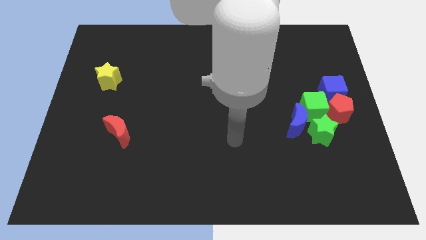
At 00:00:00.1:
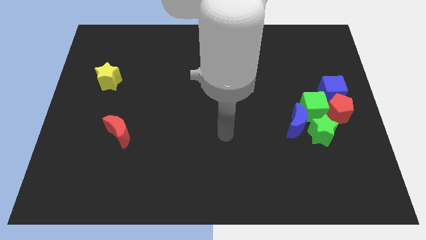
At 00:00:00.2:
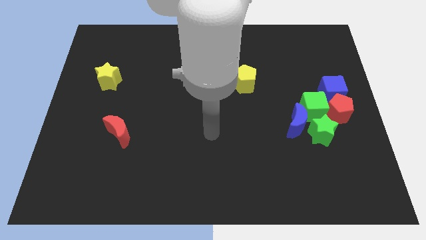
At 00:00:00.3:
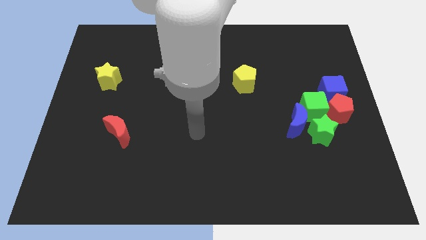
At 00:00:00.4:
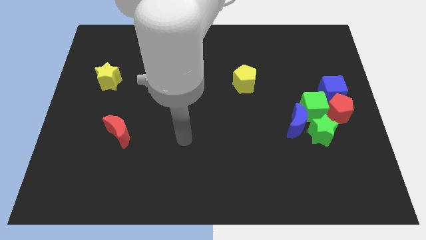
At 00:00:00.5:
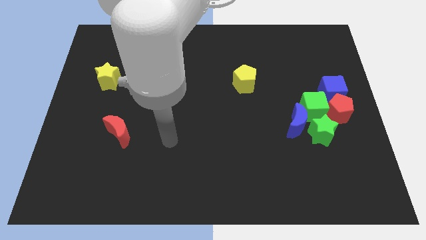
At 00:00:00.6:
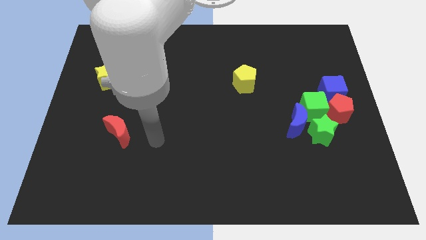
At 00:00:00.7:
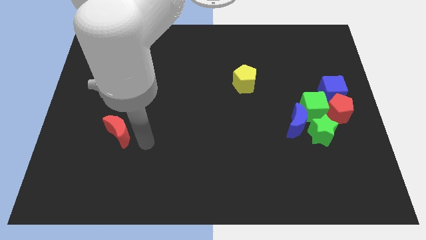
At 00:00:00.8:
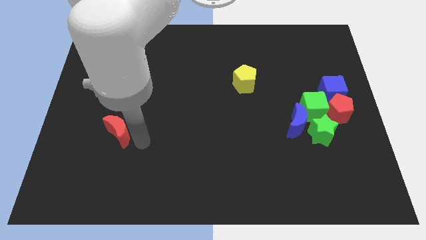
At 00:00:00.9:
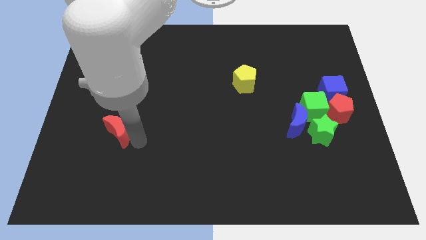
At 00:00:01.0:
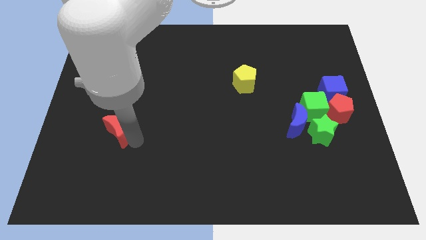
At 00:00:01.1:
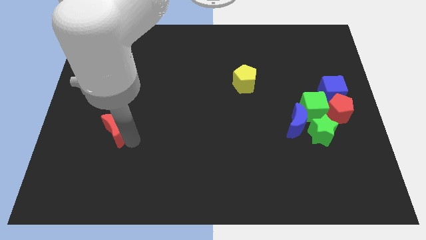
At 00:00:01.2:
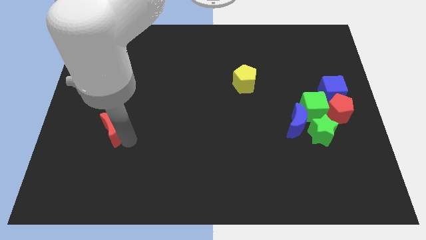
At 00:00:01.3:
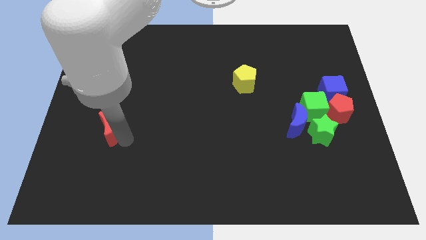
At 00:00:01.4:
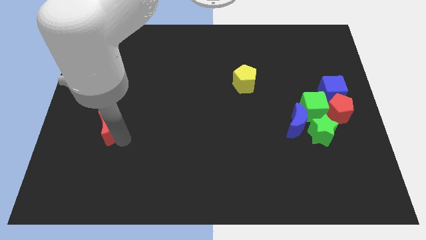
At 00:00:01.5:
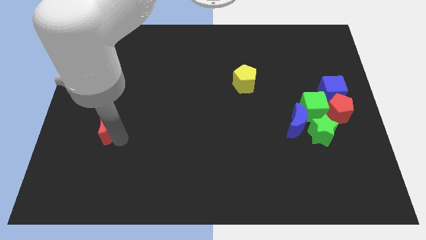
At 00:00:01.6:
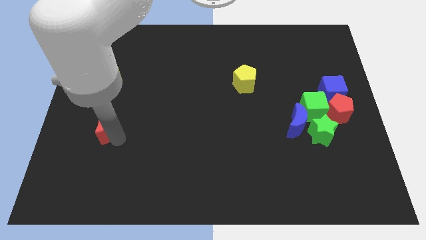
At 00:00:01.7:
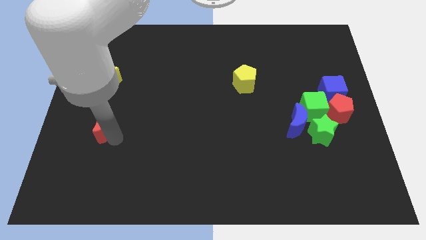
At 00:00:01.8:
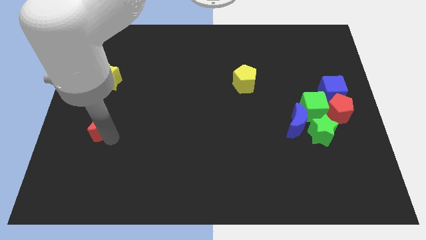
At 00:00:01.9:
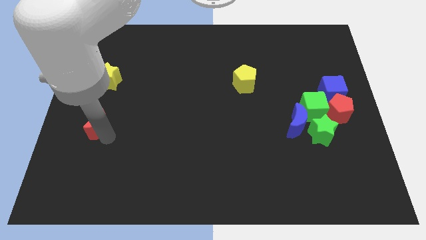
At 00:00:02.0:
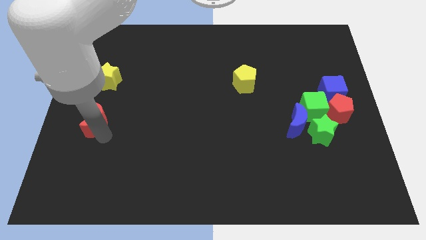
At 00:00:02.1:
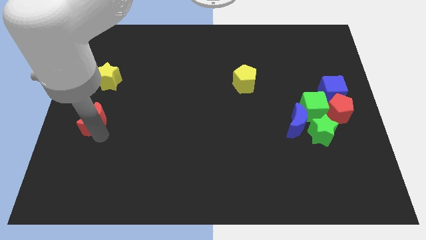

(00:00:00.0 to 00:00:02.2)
move the red moon to the left side

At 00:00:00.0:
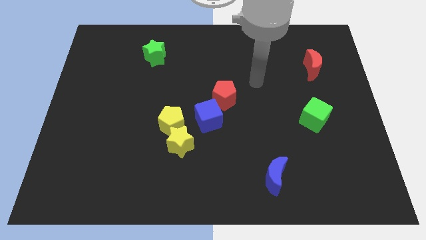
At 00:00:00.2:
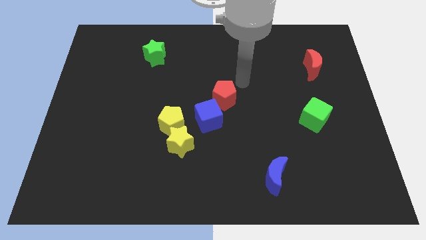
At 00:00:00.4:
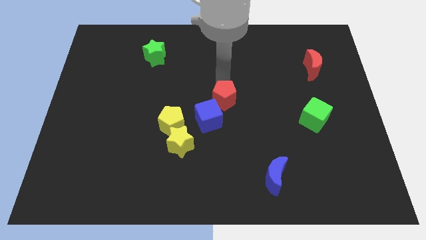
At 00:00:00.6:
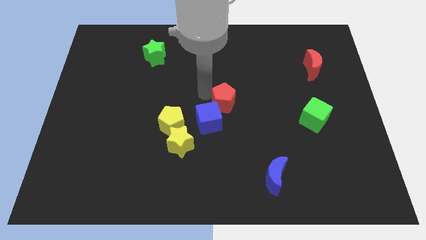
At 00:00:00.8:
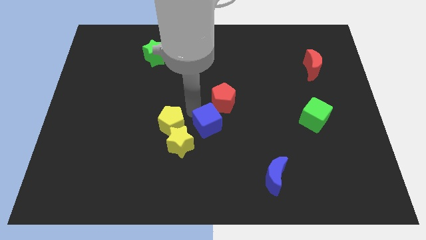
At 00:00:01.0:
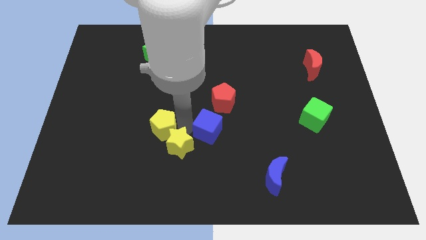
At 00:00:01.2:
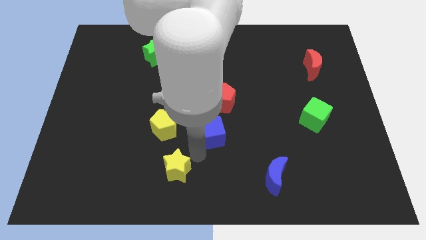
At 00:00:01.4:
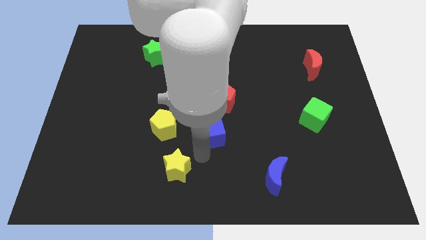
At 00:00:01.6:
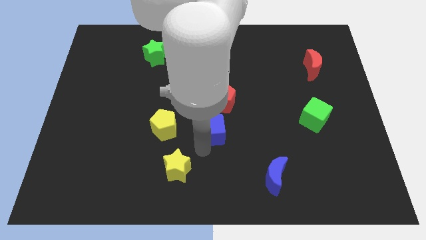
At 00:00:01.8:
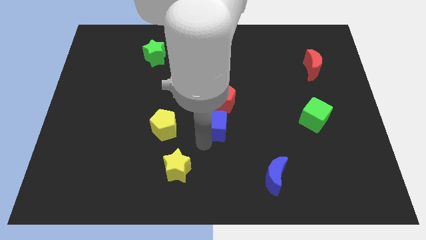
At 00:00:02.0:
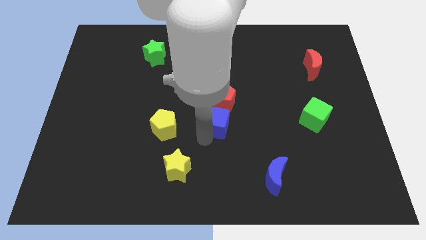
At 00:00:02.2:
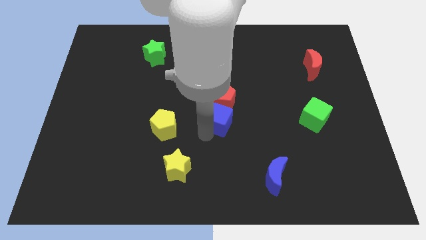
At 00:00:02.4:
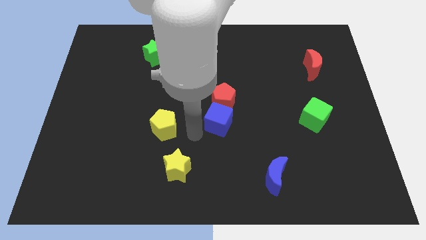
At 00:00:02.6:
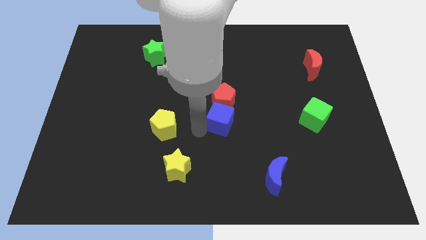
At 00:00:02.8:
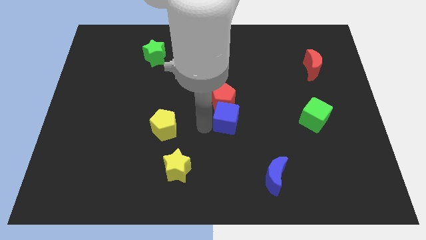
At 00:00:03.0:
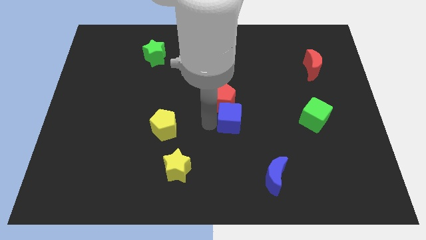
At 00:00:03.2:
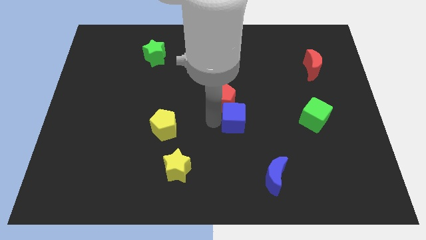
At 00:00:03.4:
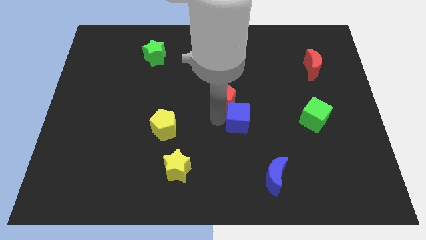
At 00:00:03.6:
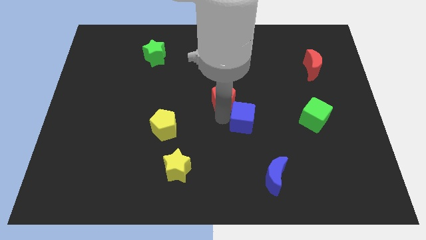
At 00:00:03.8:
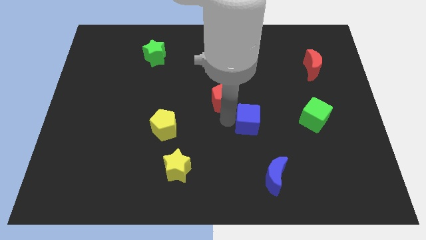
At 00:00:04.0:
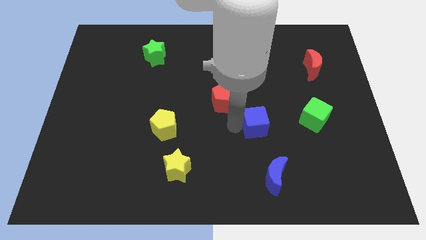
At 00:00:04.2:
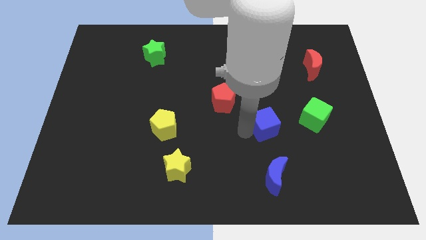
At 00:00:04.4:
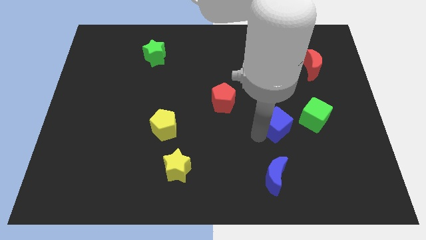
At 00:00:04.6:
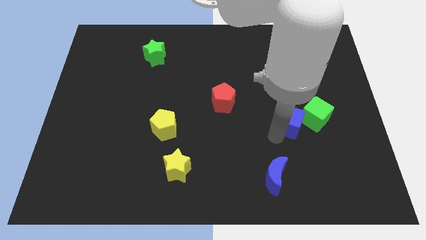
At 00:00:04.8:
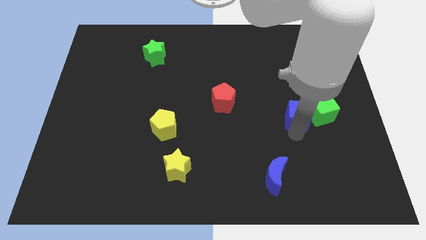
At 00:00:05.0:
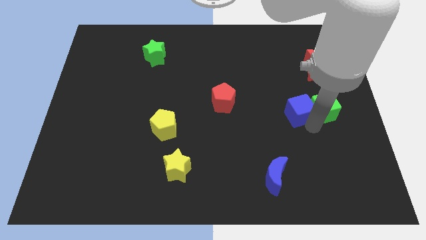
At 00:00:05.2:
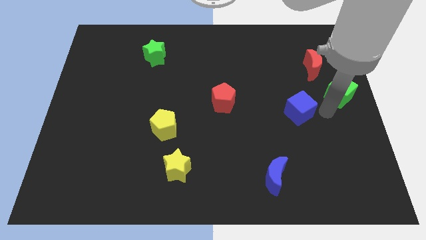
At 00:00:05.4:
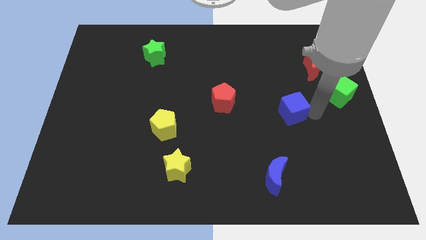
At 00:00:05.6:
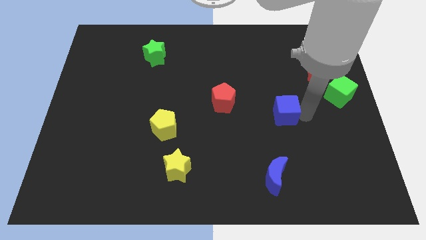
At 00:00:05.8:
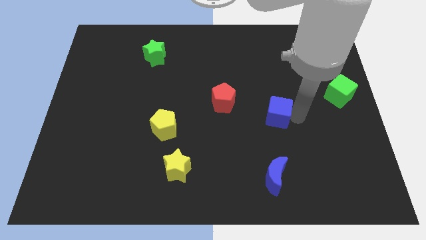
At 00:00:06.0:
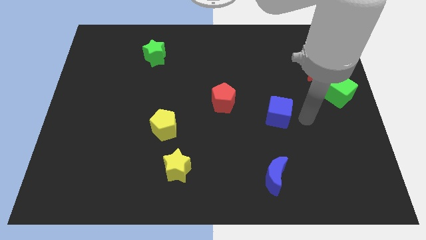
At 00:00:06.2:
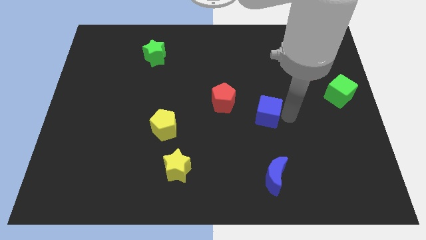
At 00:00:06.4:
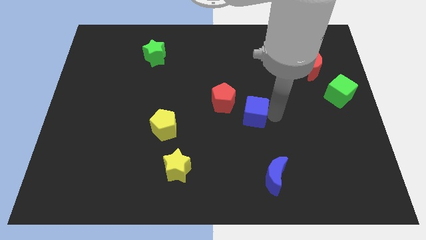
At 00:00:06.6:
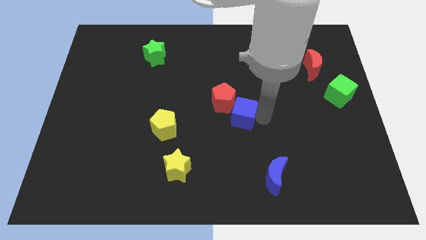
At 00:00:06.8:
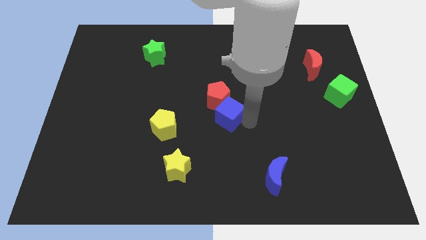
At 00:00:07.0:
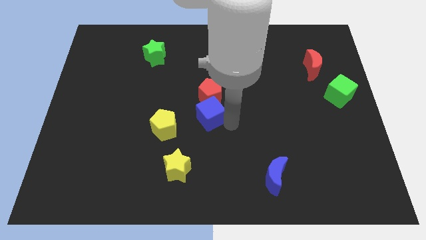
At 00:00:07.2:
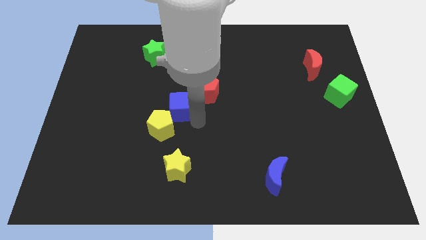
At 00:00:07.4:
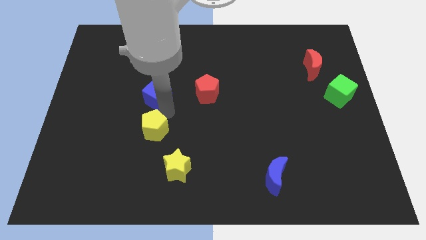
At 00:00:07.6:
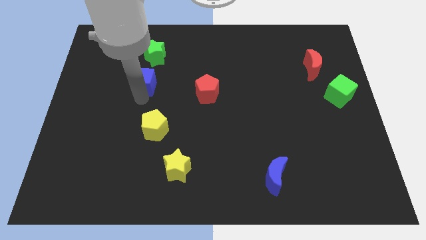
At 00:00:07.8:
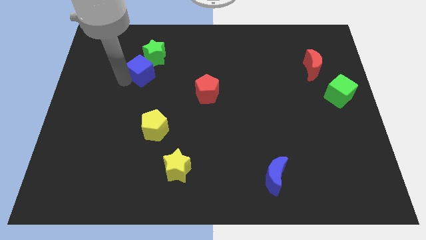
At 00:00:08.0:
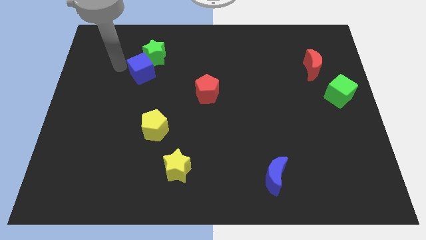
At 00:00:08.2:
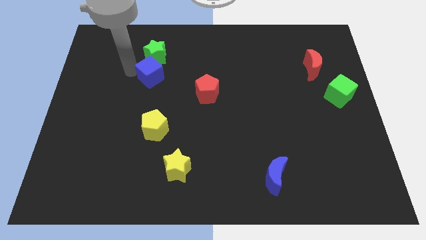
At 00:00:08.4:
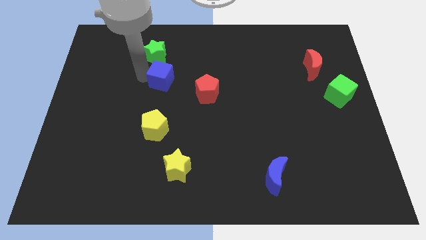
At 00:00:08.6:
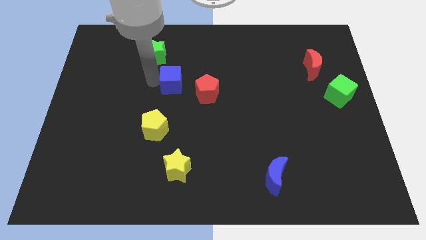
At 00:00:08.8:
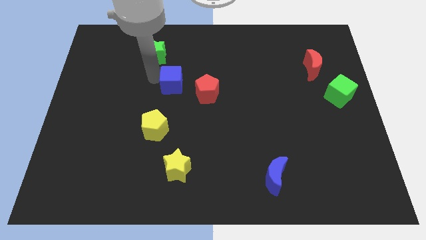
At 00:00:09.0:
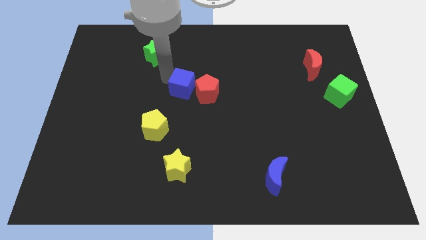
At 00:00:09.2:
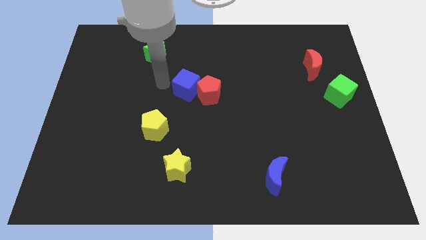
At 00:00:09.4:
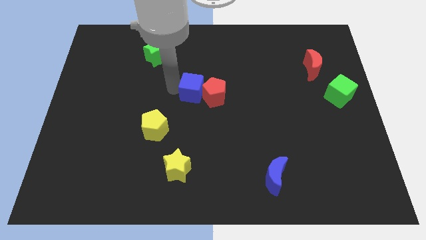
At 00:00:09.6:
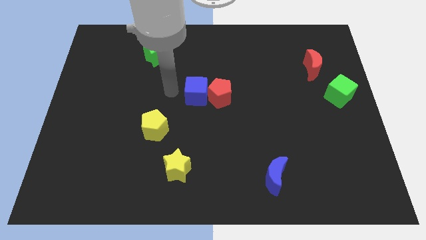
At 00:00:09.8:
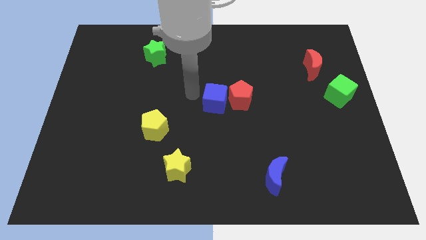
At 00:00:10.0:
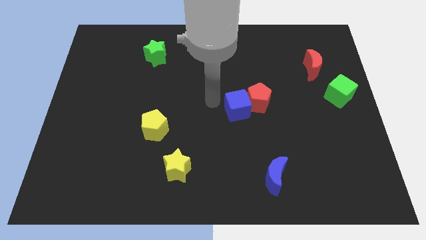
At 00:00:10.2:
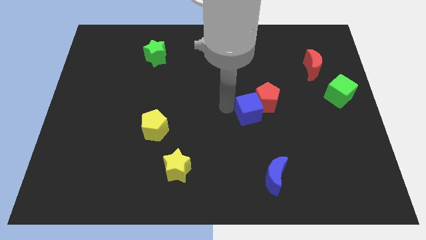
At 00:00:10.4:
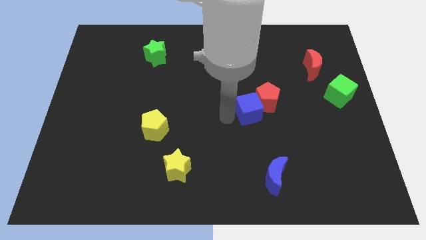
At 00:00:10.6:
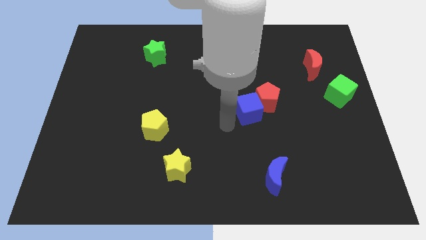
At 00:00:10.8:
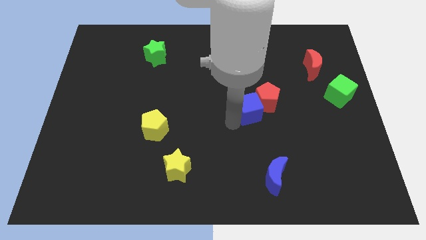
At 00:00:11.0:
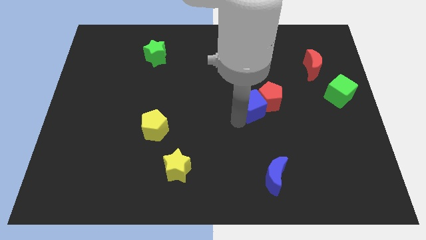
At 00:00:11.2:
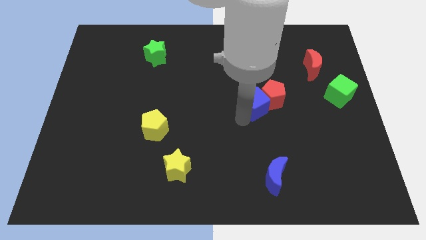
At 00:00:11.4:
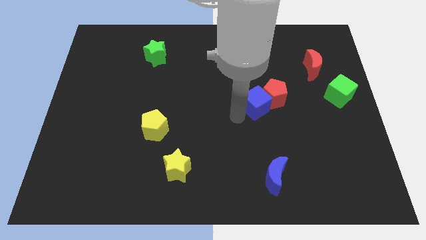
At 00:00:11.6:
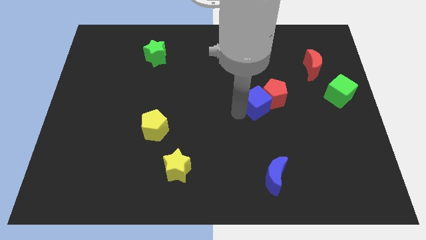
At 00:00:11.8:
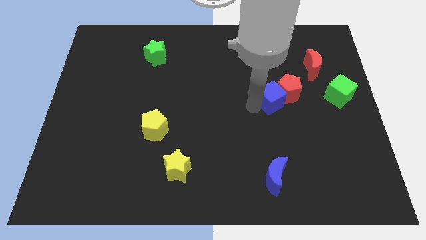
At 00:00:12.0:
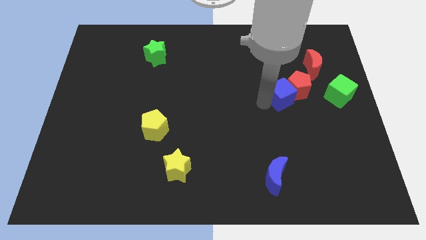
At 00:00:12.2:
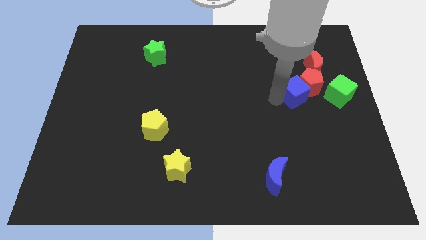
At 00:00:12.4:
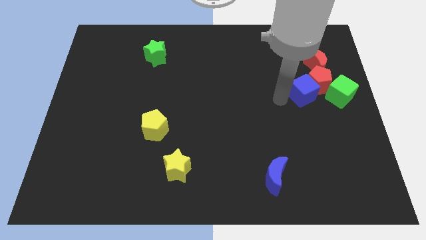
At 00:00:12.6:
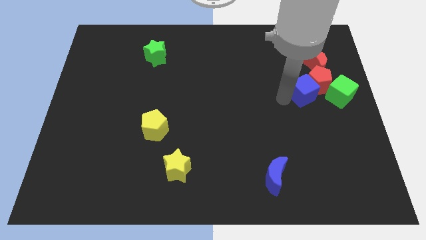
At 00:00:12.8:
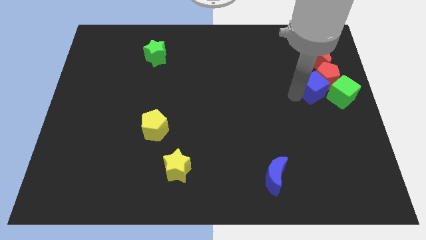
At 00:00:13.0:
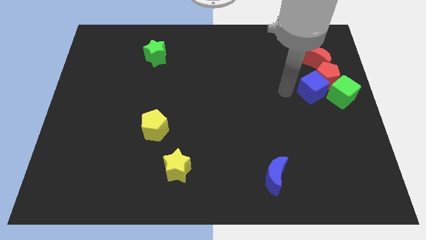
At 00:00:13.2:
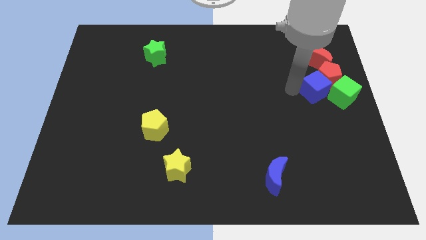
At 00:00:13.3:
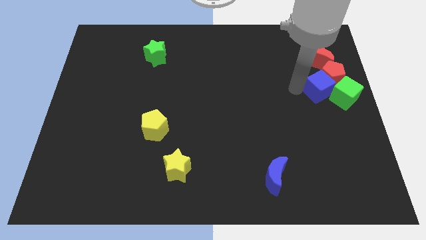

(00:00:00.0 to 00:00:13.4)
push the blue cube to the right side
